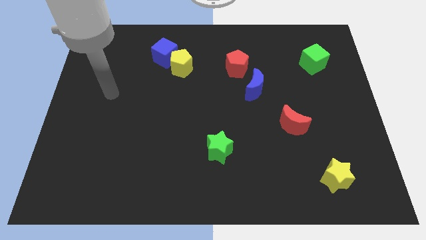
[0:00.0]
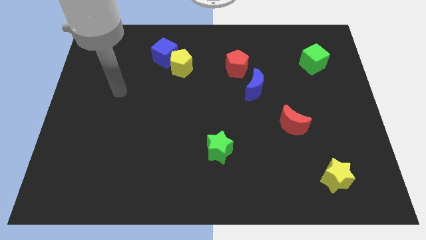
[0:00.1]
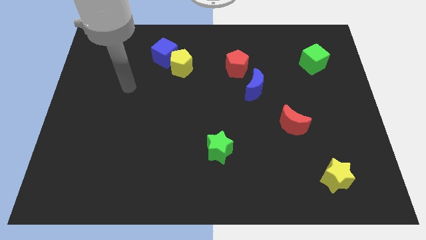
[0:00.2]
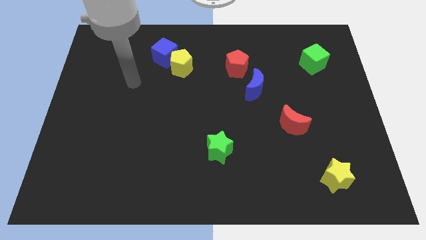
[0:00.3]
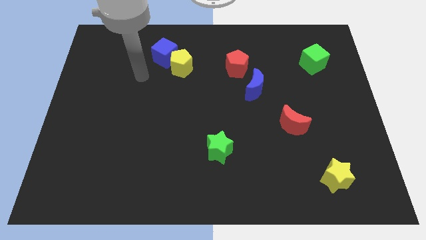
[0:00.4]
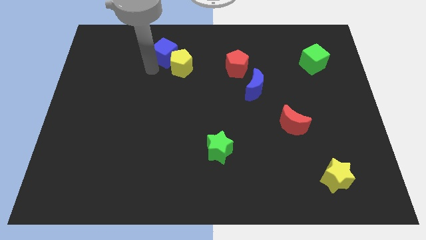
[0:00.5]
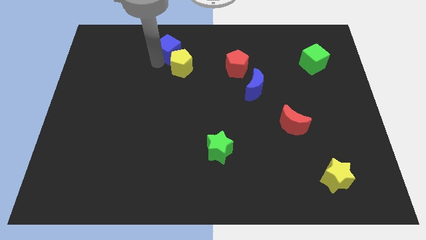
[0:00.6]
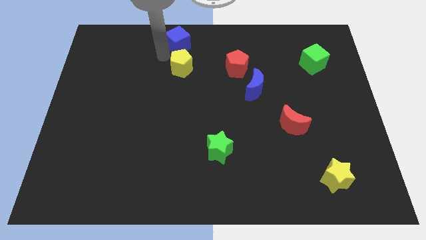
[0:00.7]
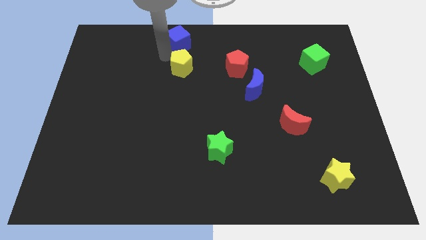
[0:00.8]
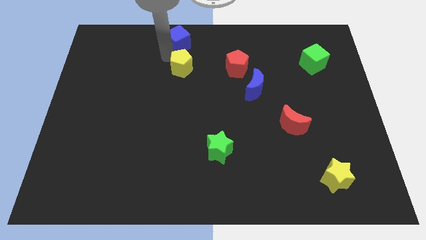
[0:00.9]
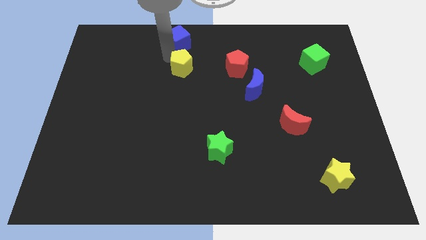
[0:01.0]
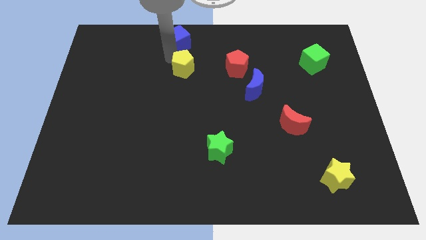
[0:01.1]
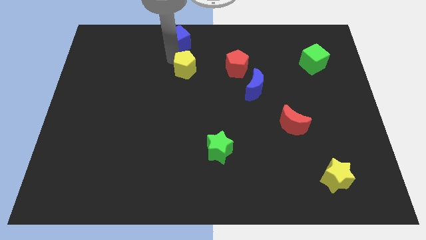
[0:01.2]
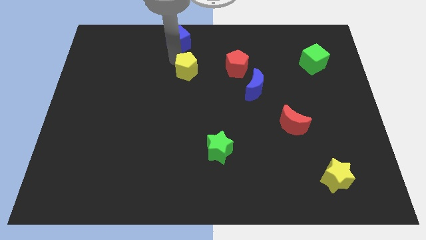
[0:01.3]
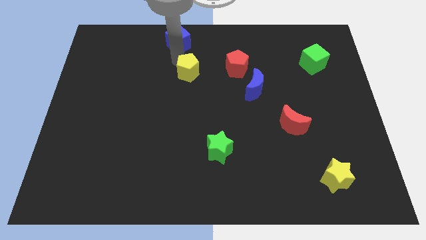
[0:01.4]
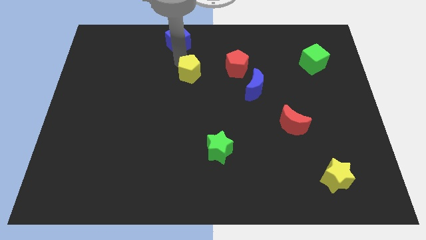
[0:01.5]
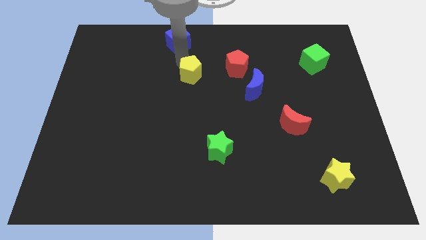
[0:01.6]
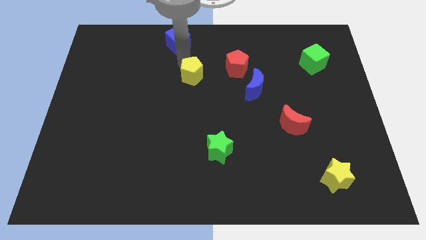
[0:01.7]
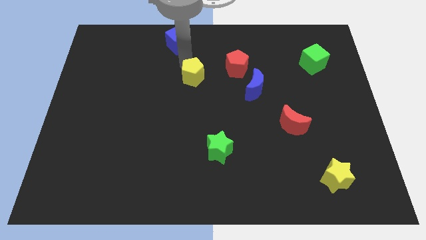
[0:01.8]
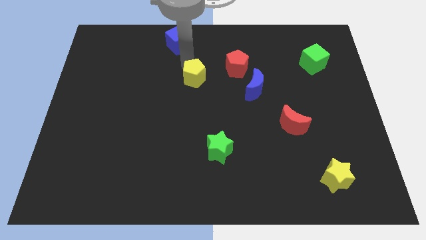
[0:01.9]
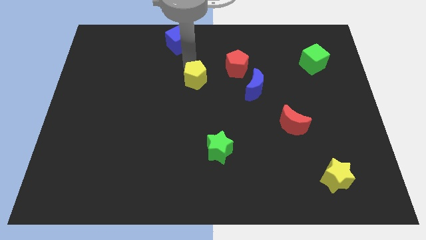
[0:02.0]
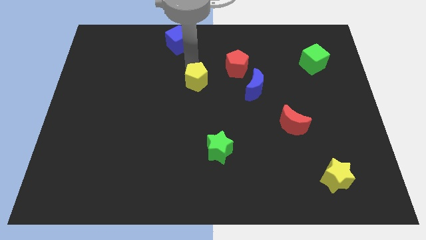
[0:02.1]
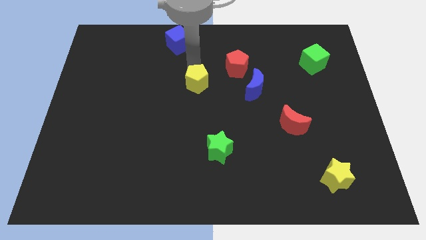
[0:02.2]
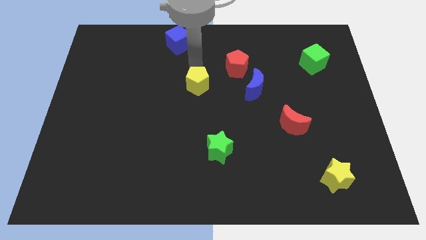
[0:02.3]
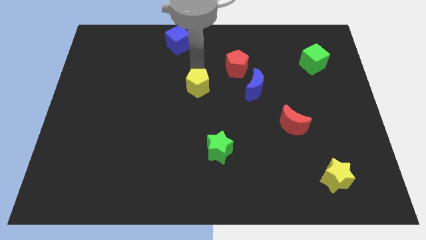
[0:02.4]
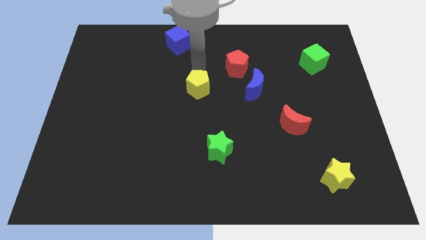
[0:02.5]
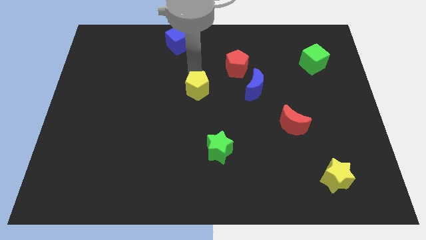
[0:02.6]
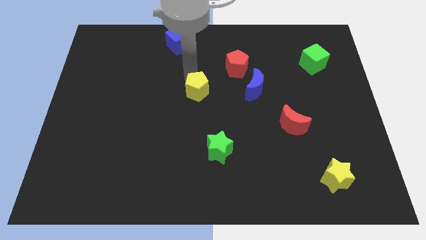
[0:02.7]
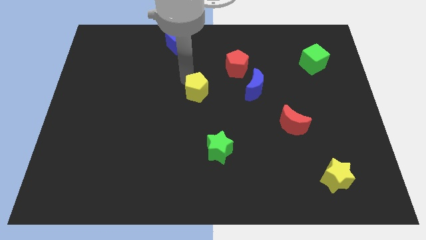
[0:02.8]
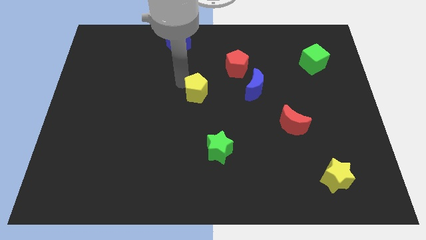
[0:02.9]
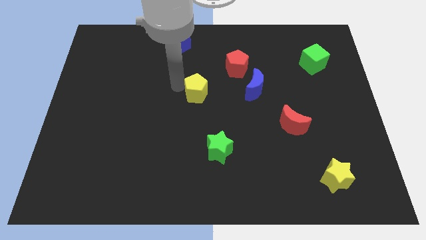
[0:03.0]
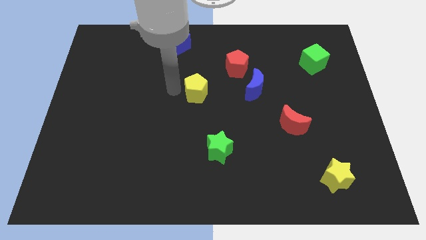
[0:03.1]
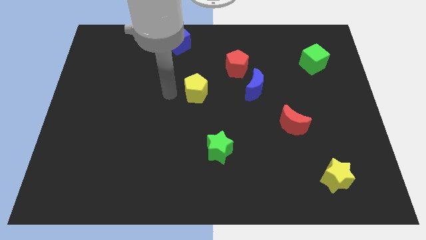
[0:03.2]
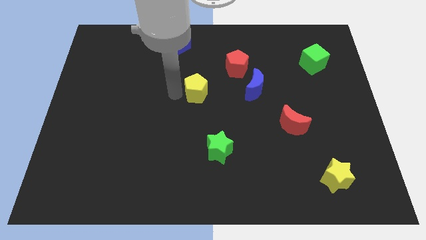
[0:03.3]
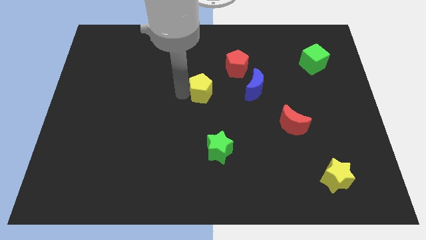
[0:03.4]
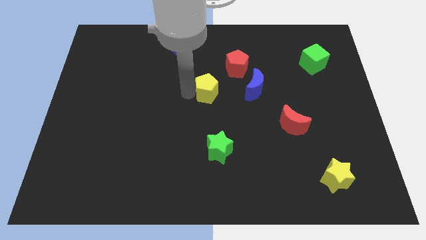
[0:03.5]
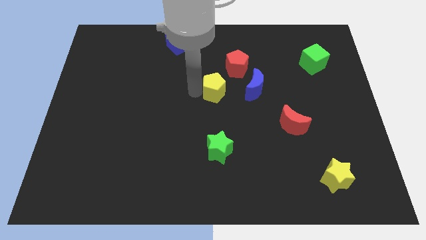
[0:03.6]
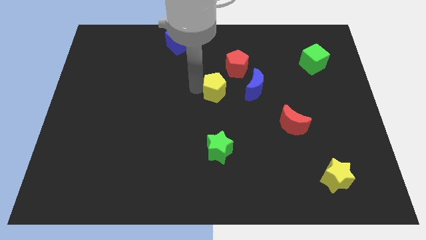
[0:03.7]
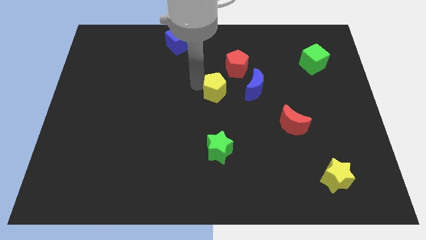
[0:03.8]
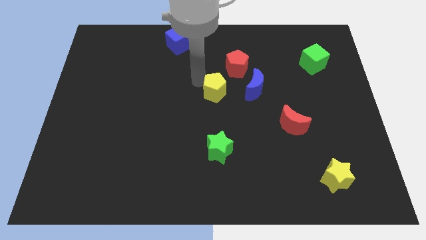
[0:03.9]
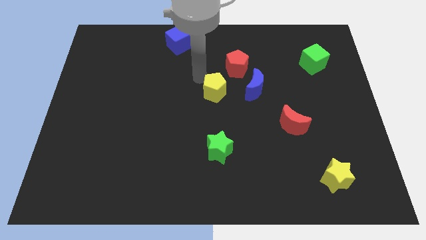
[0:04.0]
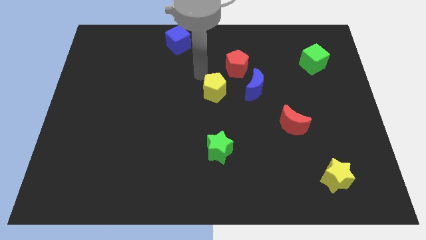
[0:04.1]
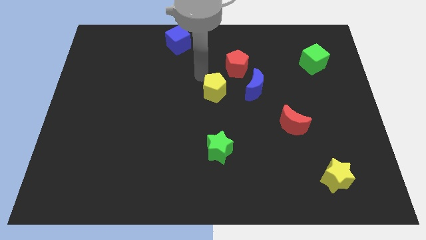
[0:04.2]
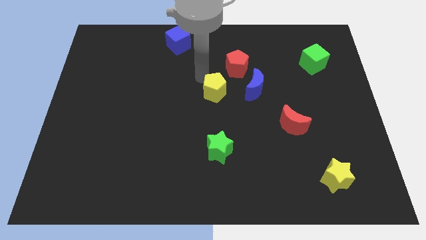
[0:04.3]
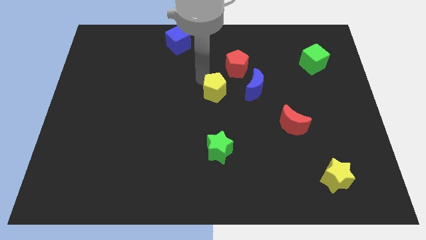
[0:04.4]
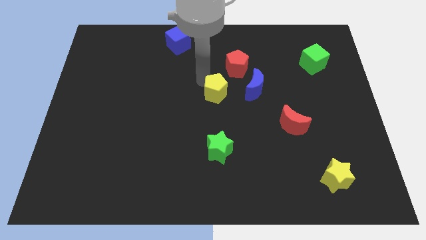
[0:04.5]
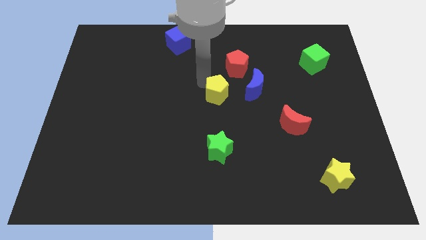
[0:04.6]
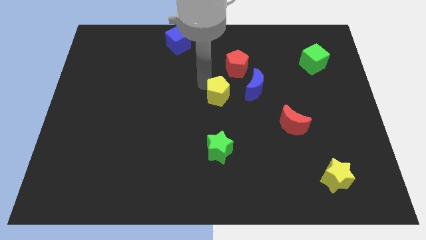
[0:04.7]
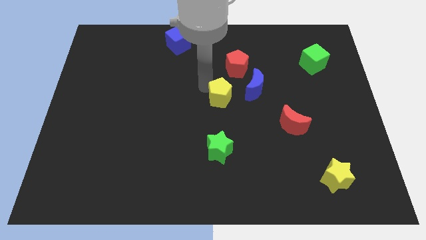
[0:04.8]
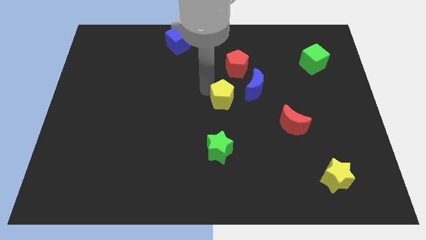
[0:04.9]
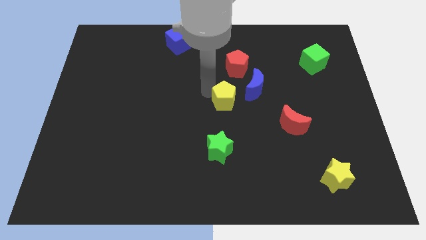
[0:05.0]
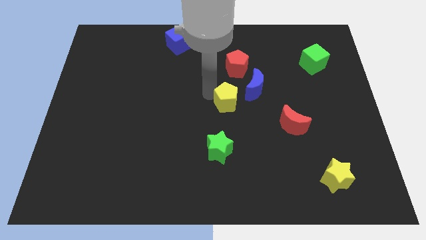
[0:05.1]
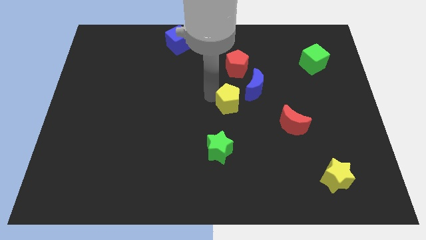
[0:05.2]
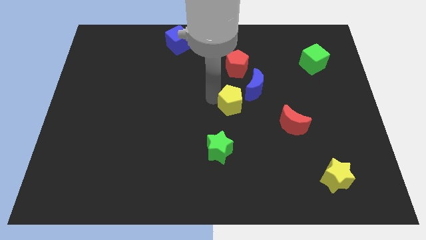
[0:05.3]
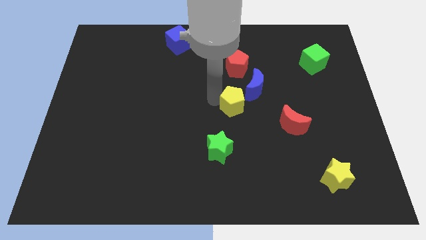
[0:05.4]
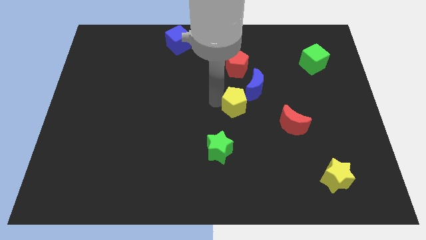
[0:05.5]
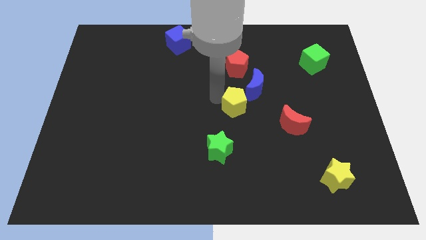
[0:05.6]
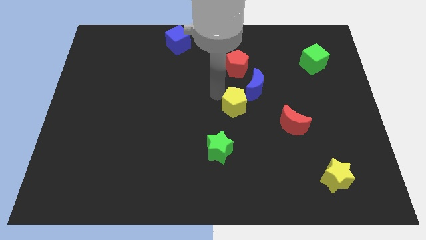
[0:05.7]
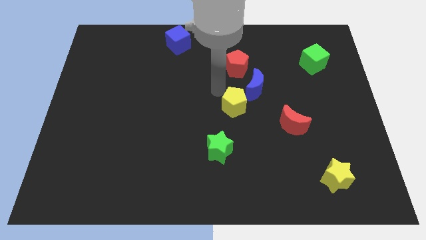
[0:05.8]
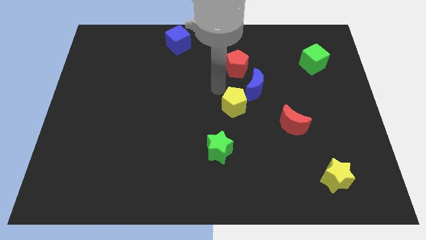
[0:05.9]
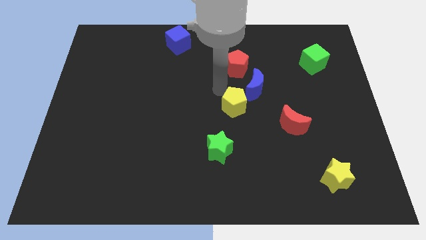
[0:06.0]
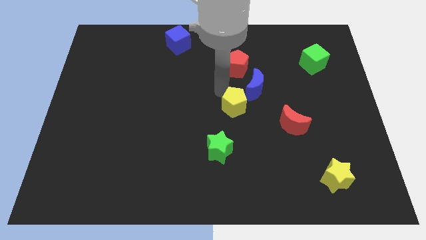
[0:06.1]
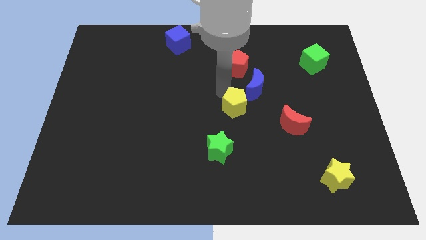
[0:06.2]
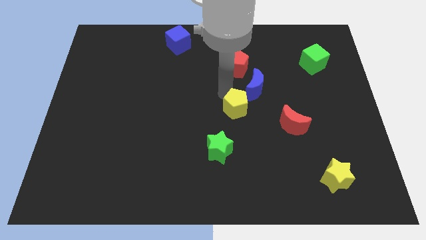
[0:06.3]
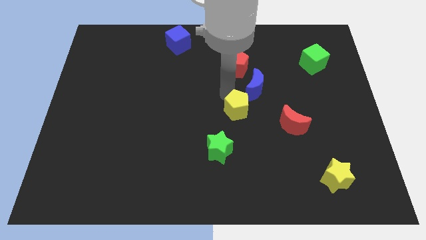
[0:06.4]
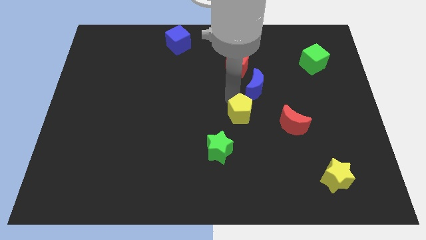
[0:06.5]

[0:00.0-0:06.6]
slide the yellow pentagon diagonally downwards and right

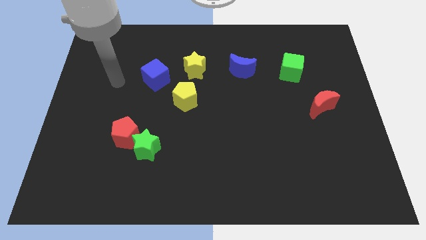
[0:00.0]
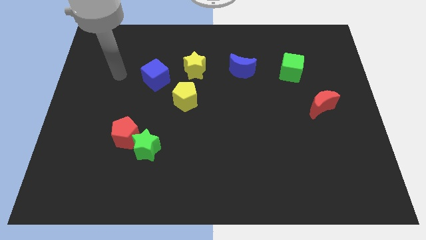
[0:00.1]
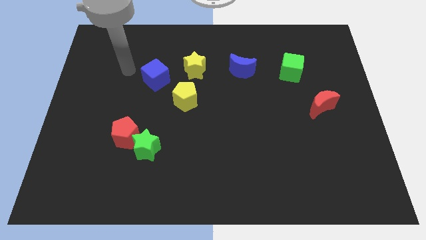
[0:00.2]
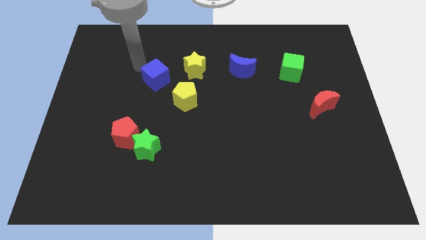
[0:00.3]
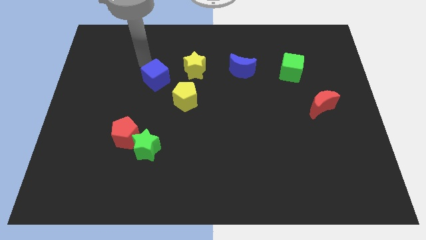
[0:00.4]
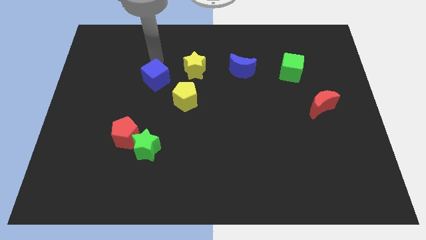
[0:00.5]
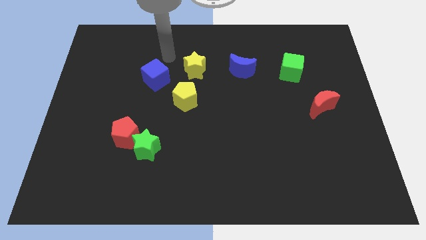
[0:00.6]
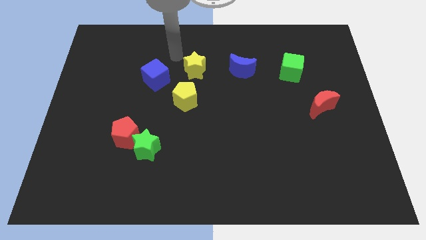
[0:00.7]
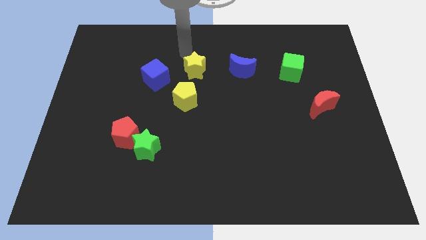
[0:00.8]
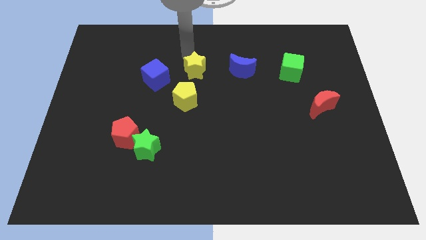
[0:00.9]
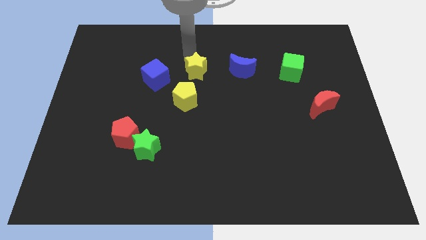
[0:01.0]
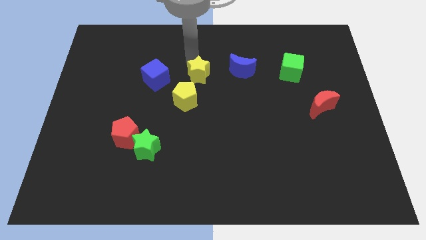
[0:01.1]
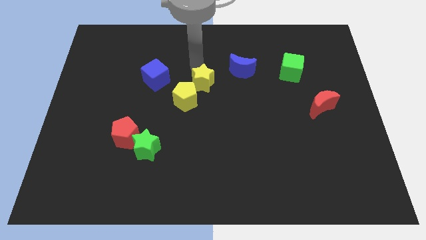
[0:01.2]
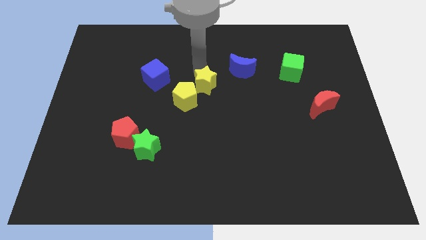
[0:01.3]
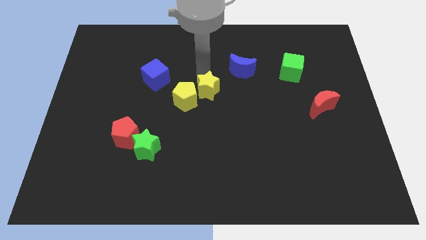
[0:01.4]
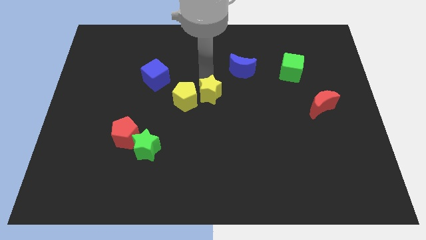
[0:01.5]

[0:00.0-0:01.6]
slide the yellow star down a little bit

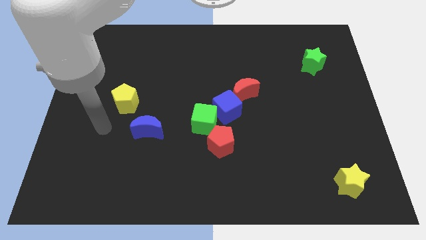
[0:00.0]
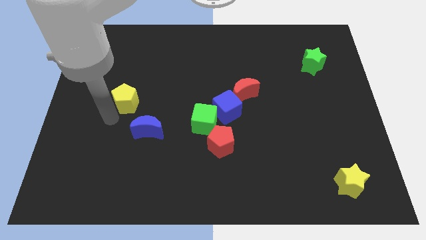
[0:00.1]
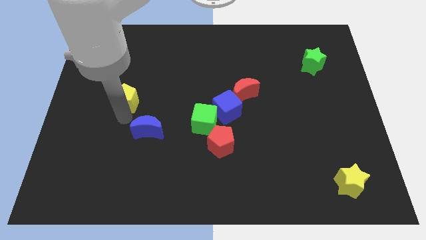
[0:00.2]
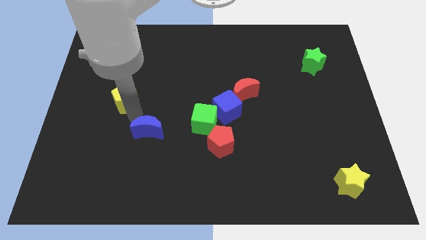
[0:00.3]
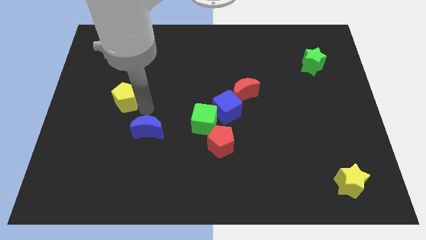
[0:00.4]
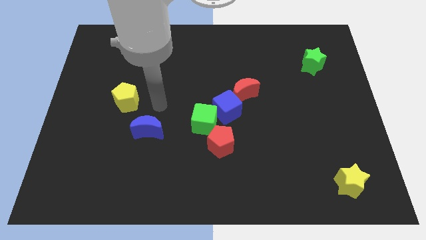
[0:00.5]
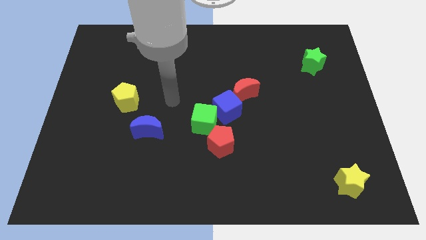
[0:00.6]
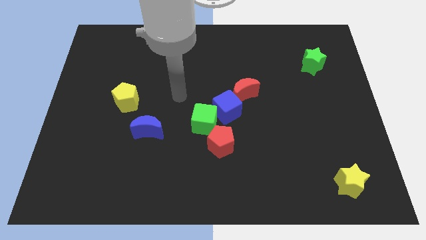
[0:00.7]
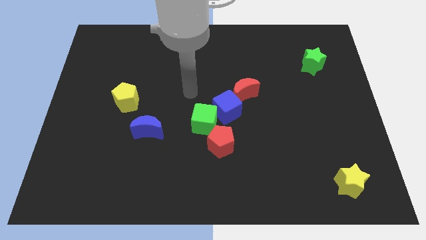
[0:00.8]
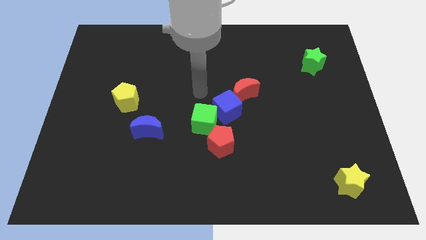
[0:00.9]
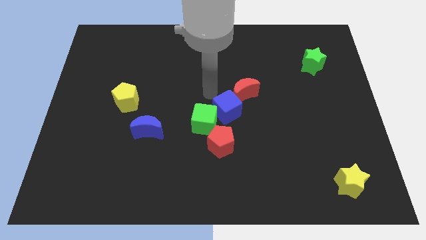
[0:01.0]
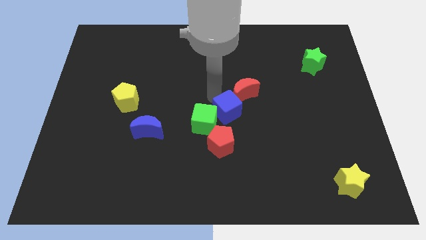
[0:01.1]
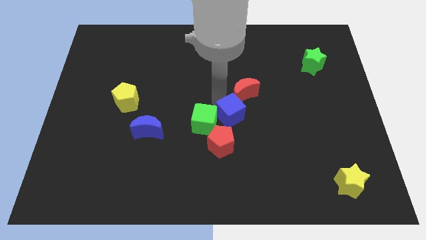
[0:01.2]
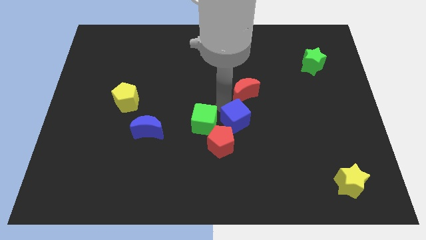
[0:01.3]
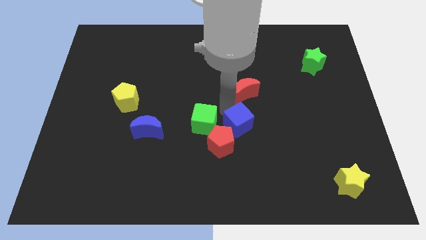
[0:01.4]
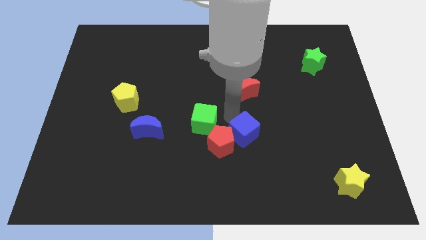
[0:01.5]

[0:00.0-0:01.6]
push the blue cube down and to the right a bit
